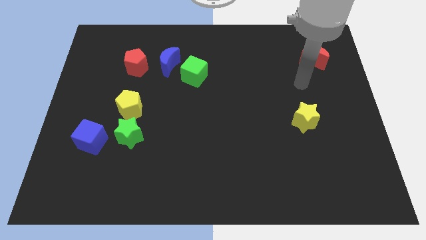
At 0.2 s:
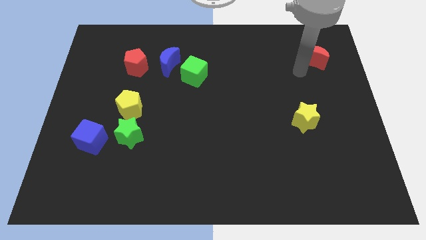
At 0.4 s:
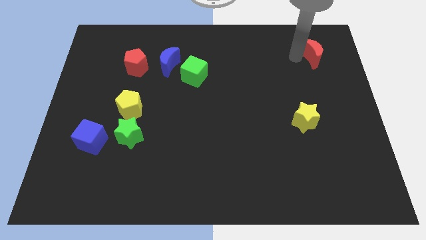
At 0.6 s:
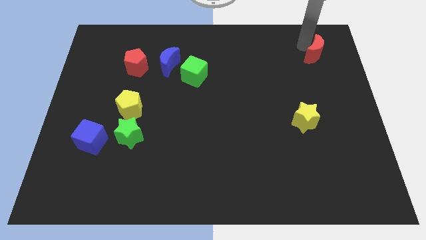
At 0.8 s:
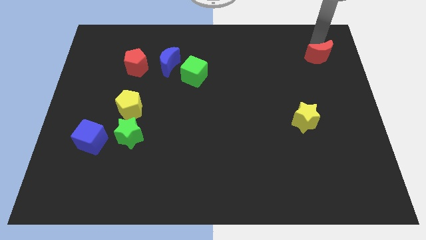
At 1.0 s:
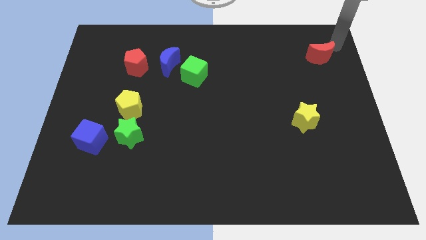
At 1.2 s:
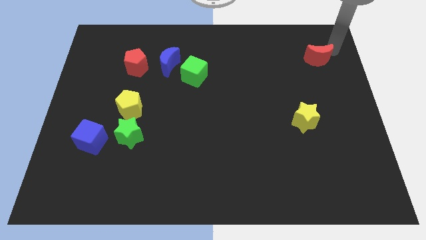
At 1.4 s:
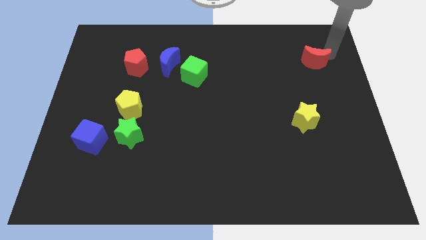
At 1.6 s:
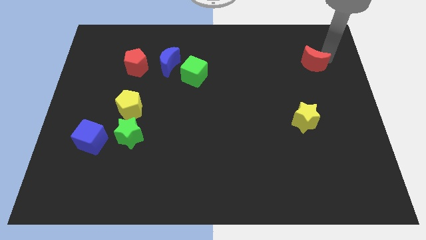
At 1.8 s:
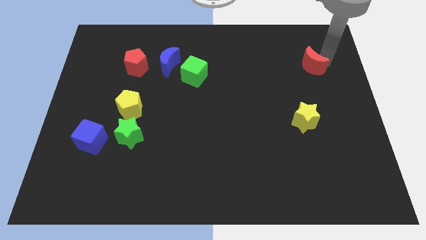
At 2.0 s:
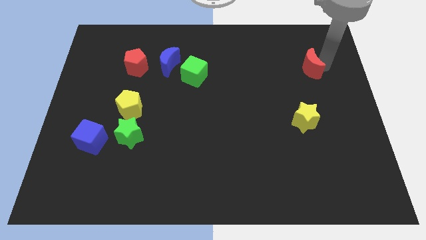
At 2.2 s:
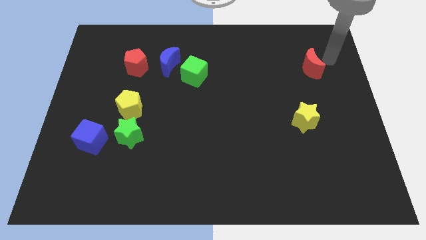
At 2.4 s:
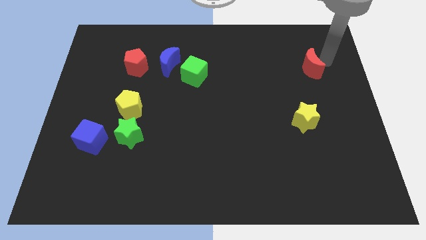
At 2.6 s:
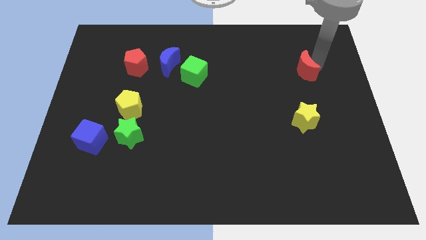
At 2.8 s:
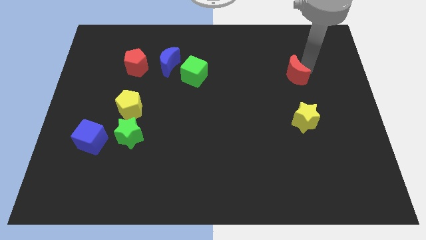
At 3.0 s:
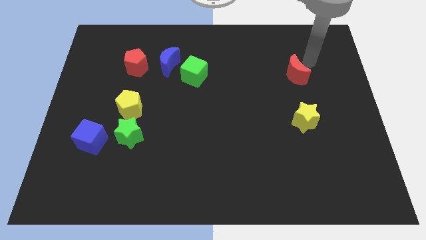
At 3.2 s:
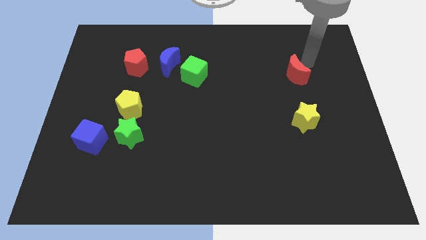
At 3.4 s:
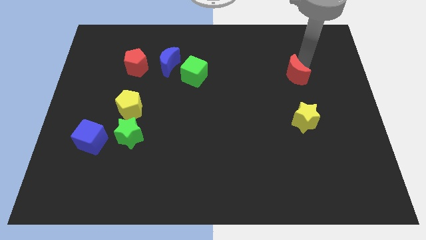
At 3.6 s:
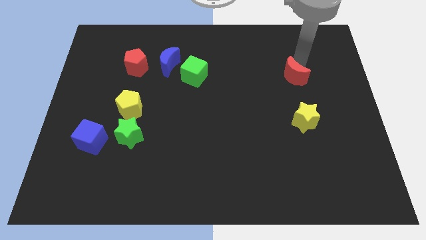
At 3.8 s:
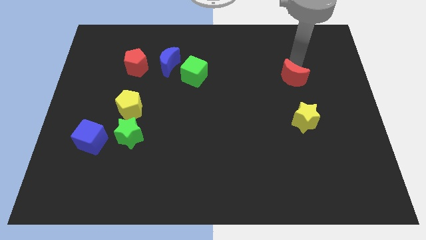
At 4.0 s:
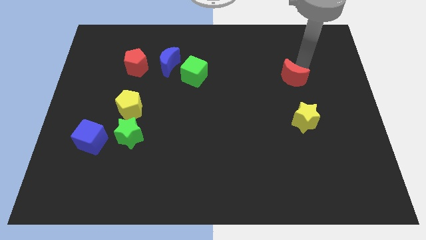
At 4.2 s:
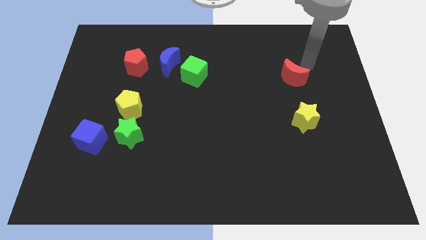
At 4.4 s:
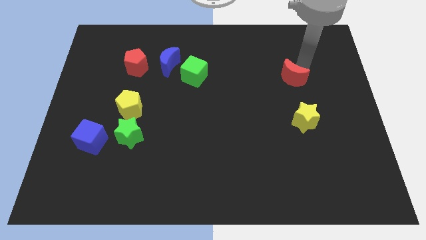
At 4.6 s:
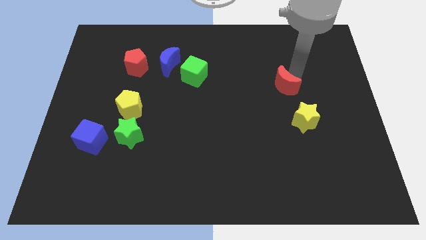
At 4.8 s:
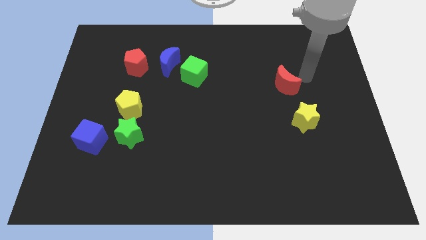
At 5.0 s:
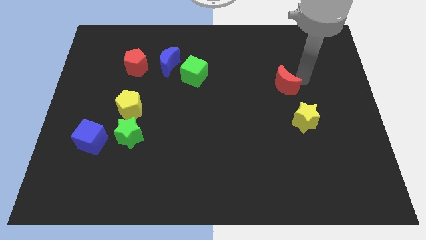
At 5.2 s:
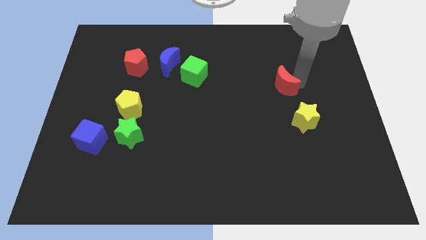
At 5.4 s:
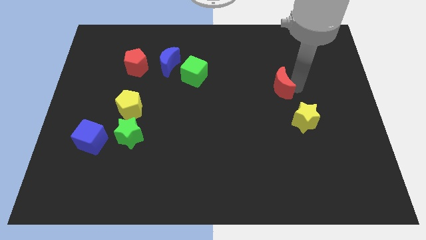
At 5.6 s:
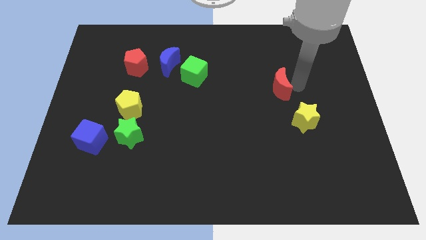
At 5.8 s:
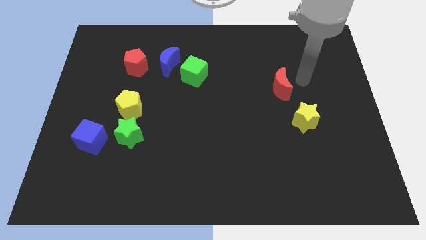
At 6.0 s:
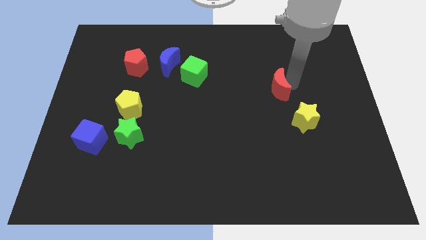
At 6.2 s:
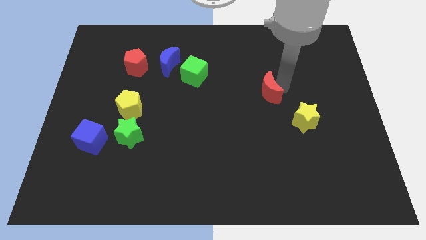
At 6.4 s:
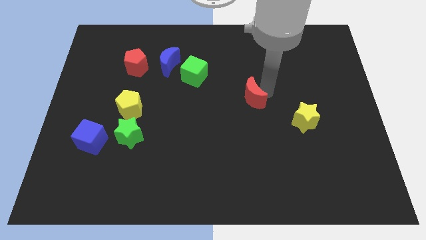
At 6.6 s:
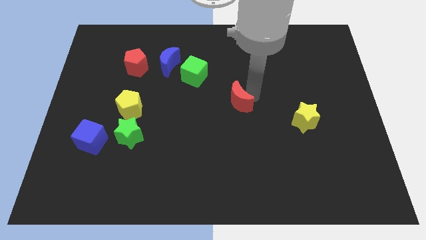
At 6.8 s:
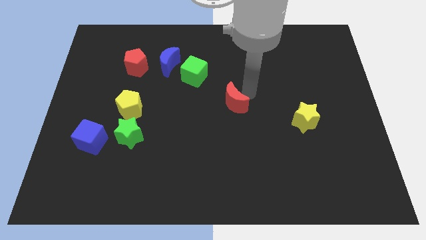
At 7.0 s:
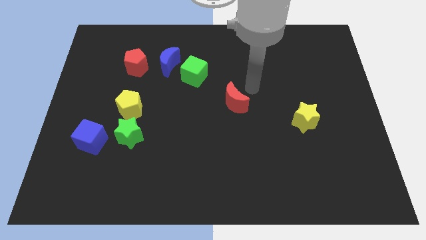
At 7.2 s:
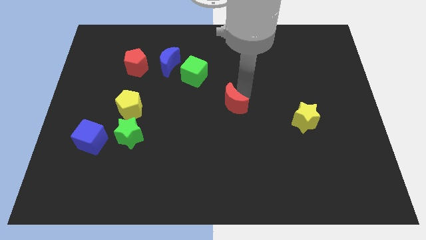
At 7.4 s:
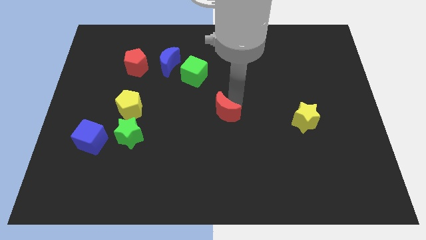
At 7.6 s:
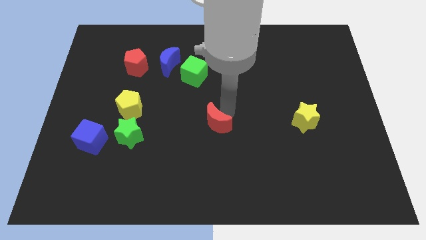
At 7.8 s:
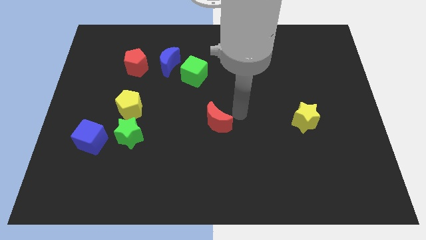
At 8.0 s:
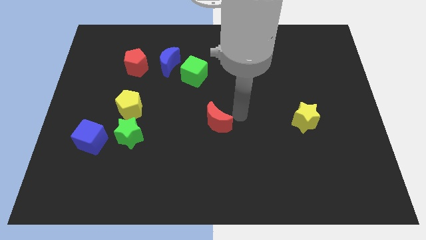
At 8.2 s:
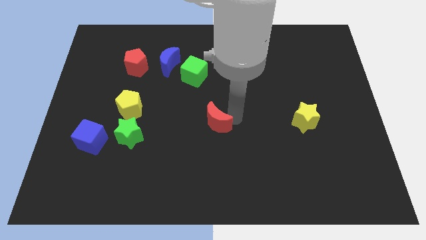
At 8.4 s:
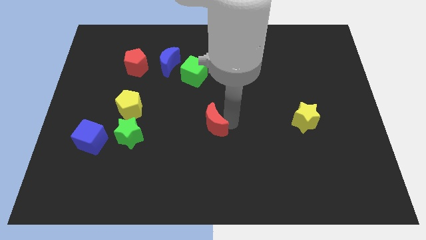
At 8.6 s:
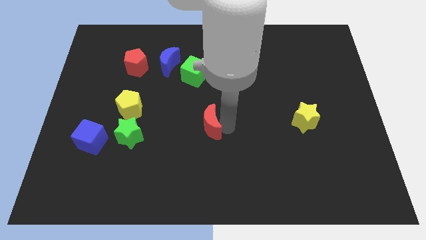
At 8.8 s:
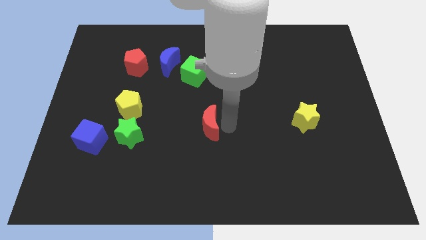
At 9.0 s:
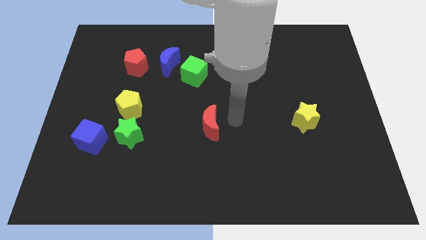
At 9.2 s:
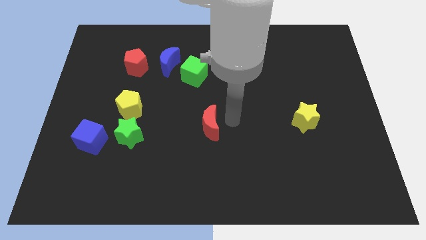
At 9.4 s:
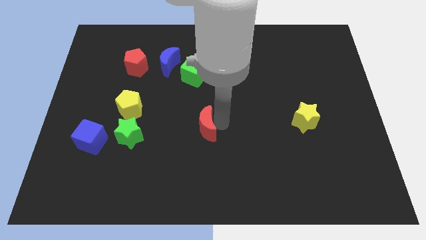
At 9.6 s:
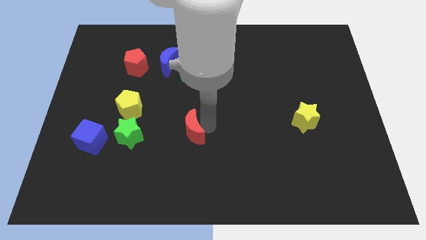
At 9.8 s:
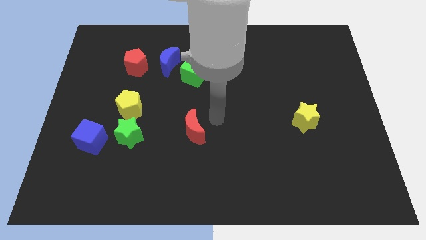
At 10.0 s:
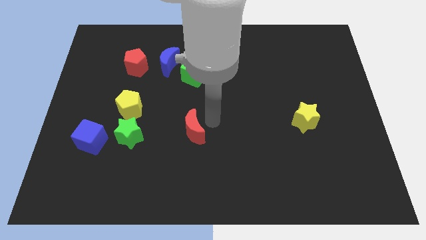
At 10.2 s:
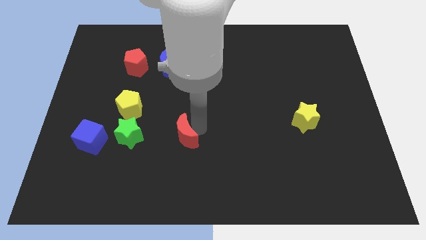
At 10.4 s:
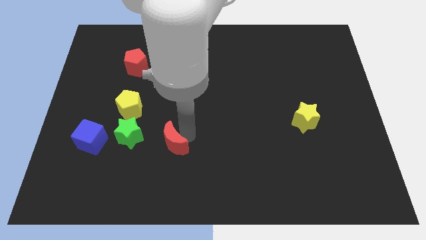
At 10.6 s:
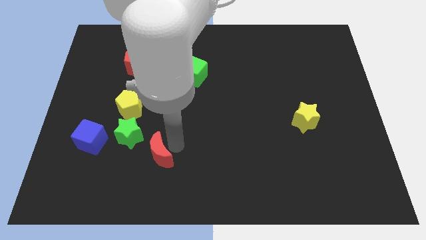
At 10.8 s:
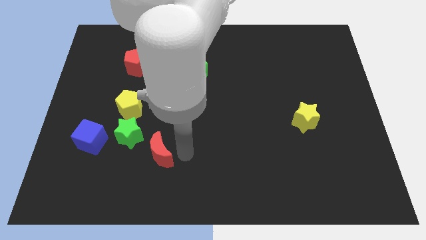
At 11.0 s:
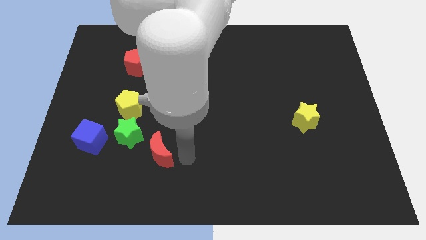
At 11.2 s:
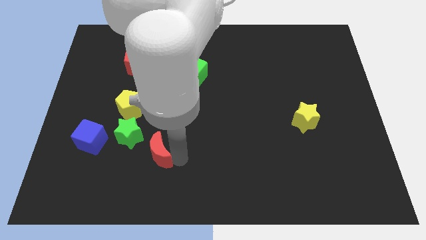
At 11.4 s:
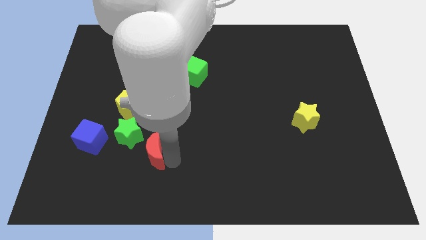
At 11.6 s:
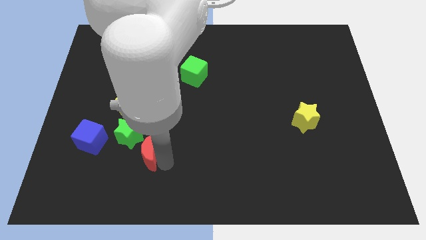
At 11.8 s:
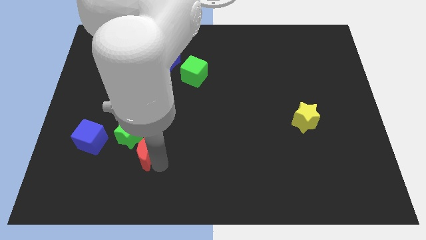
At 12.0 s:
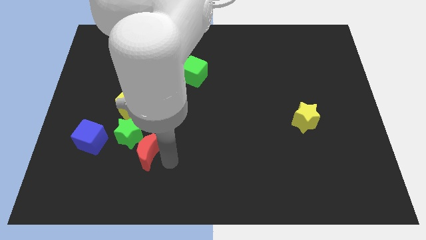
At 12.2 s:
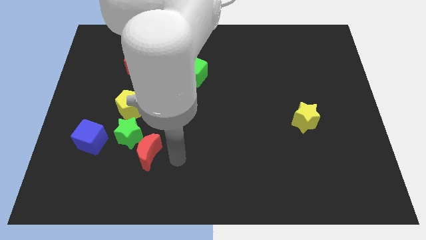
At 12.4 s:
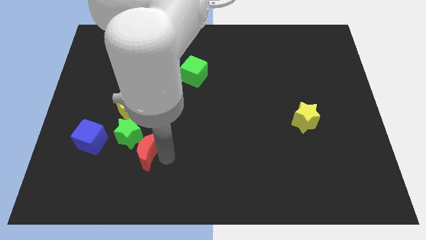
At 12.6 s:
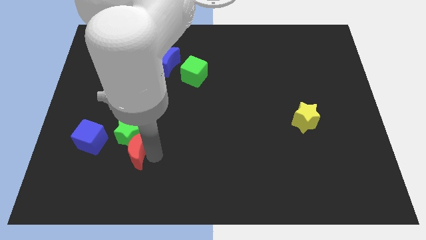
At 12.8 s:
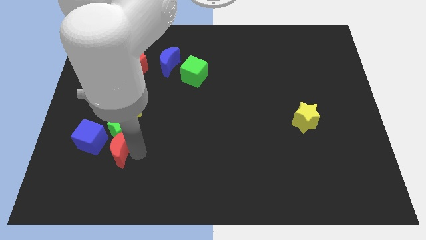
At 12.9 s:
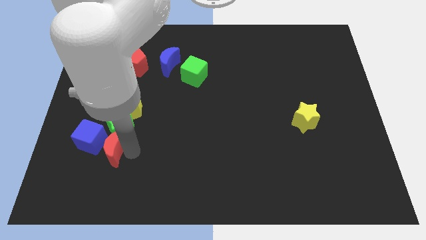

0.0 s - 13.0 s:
put the red moon towards the blue cube

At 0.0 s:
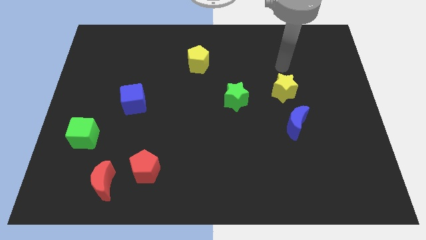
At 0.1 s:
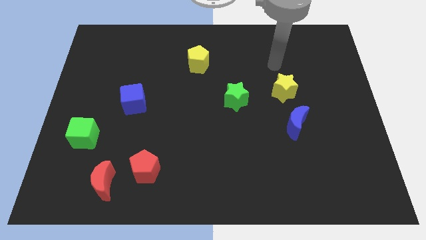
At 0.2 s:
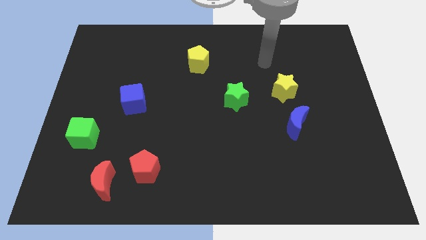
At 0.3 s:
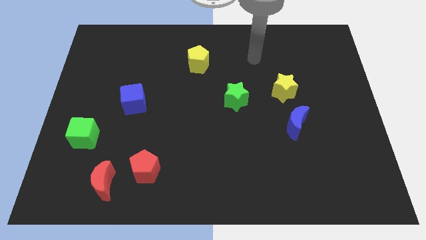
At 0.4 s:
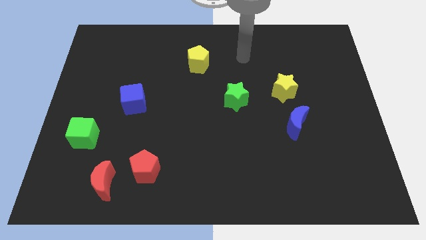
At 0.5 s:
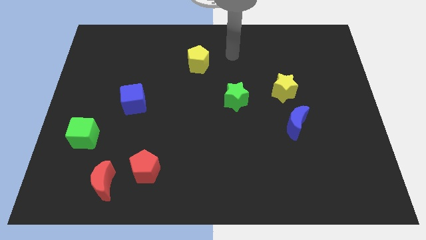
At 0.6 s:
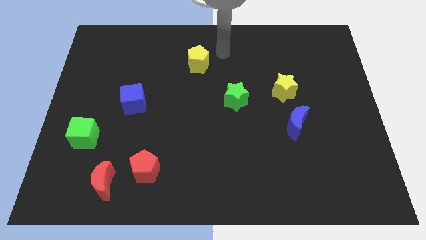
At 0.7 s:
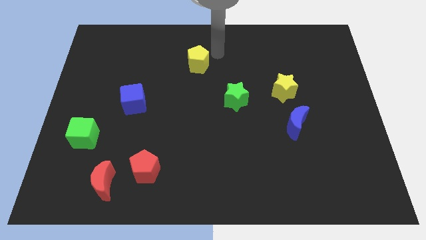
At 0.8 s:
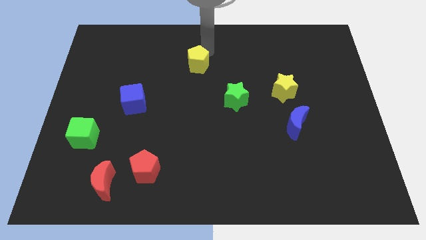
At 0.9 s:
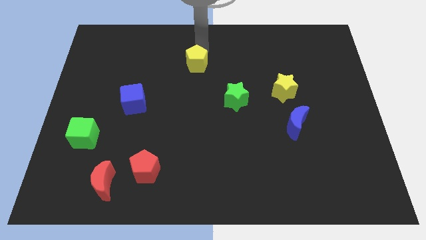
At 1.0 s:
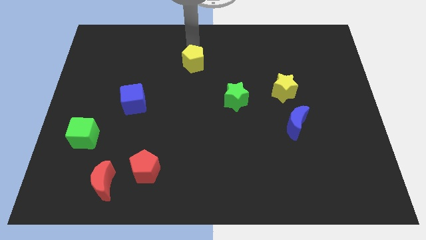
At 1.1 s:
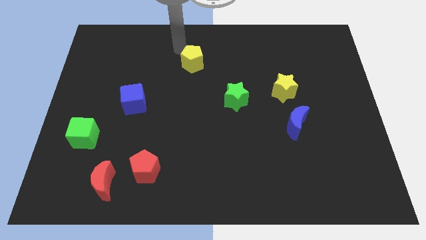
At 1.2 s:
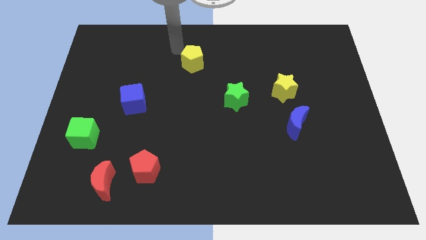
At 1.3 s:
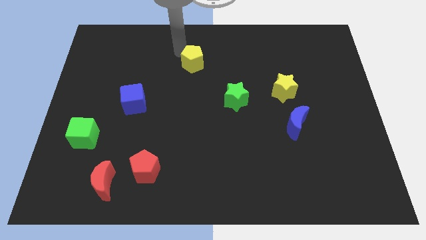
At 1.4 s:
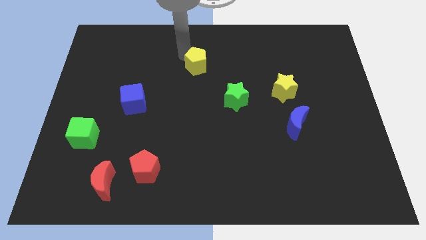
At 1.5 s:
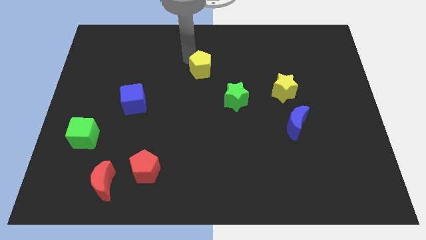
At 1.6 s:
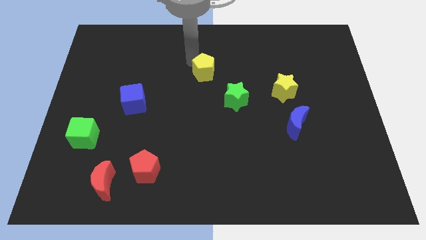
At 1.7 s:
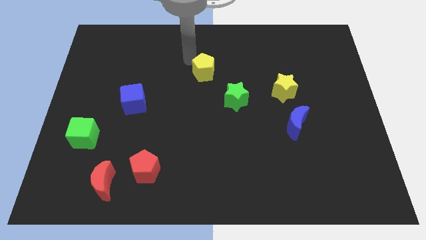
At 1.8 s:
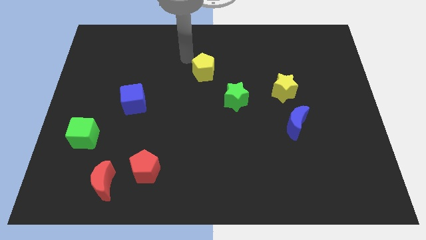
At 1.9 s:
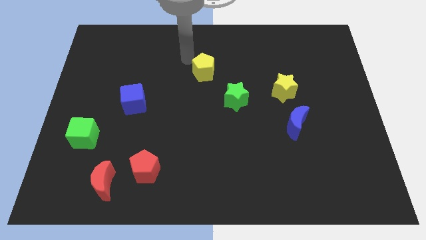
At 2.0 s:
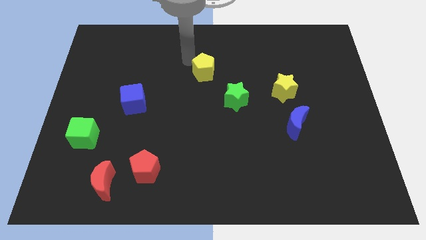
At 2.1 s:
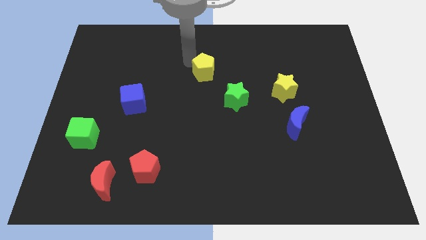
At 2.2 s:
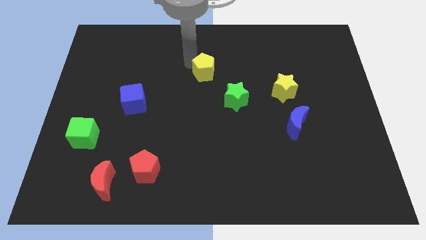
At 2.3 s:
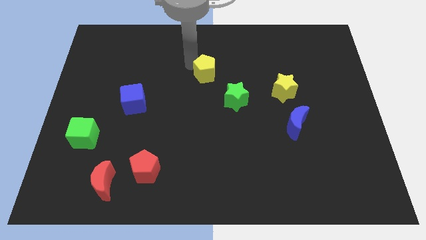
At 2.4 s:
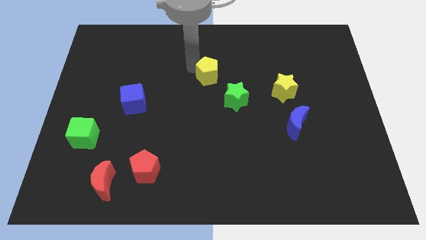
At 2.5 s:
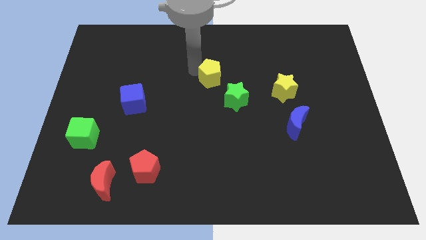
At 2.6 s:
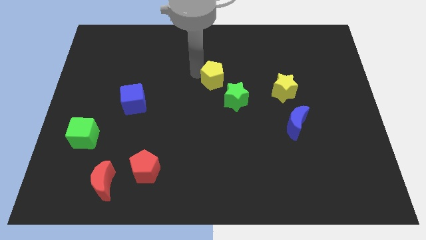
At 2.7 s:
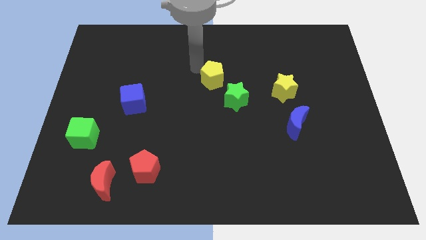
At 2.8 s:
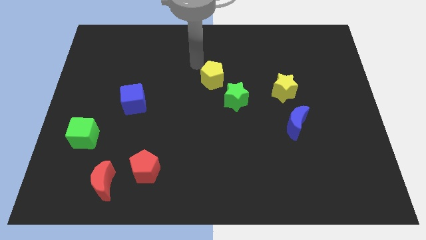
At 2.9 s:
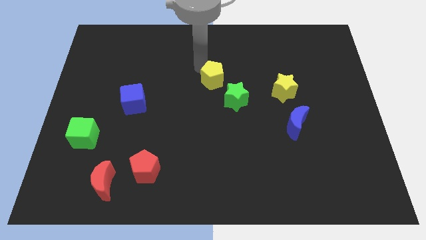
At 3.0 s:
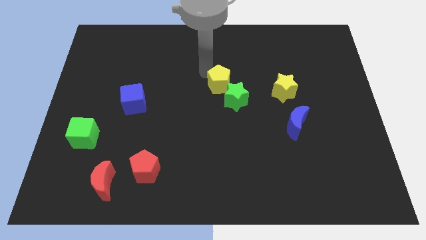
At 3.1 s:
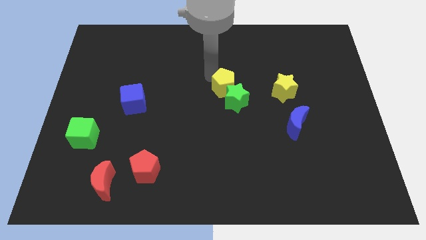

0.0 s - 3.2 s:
slide the yellow pentagon next to the green star
